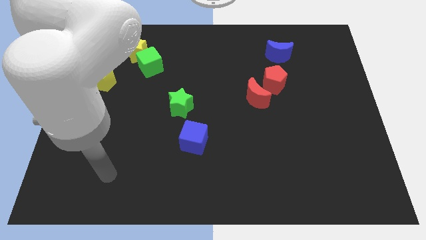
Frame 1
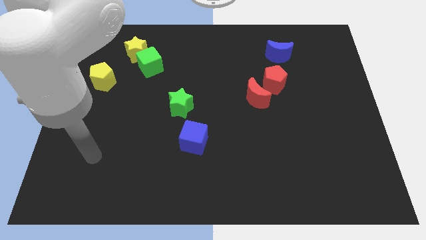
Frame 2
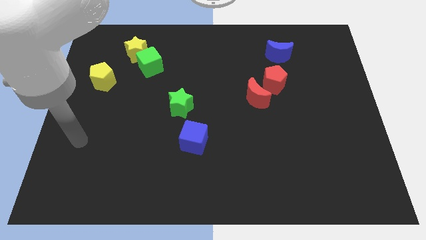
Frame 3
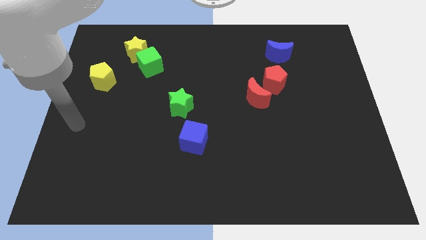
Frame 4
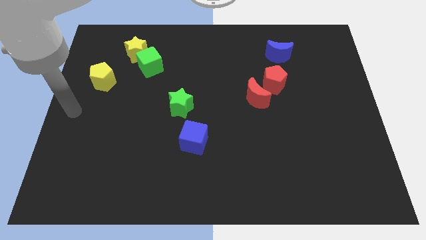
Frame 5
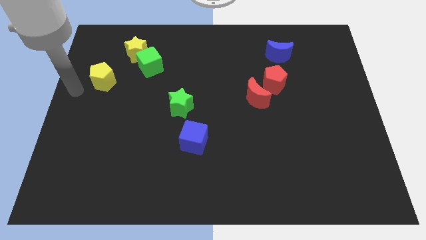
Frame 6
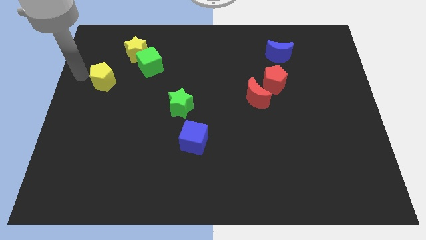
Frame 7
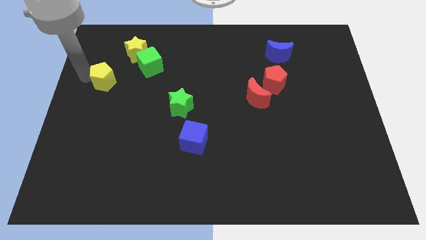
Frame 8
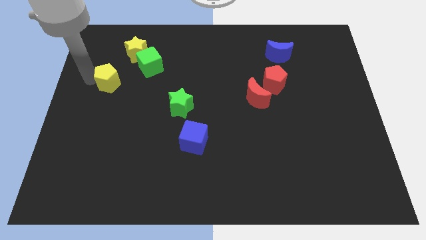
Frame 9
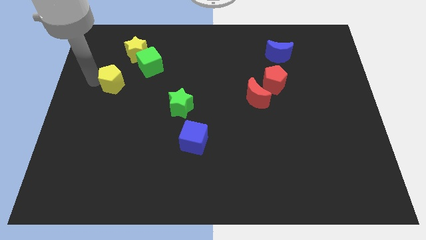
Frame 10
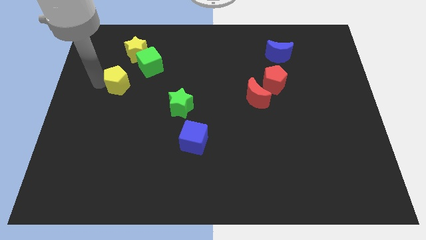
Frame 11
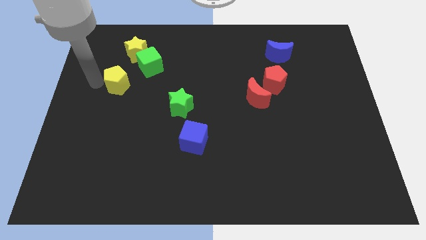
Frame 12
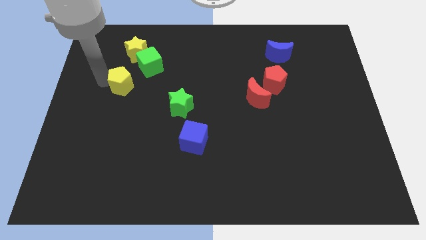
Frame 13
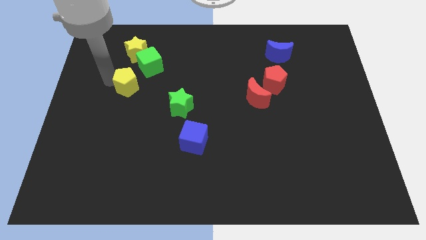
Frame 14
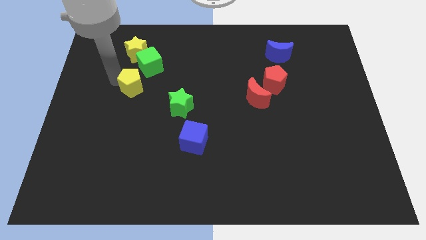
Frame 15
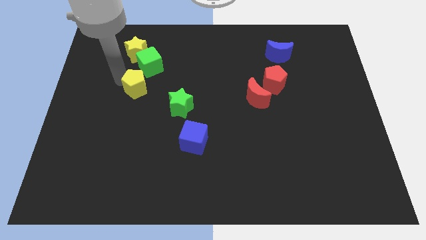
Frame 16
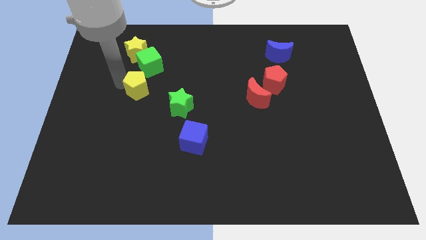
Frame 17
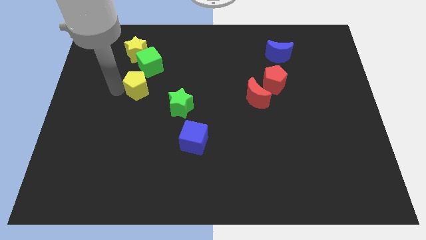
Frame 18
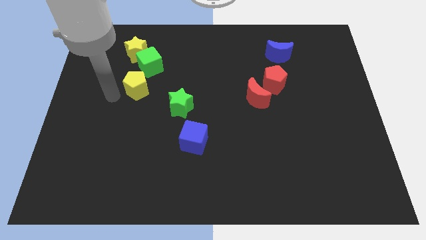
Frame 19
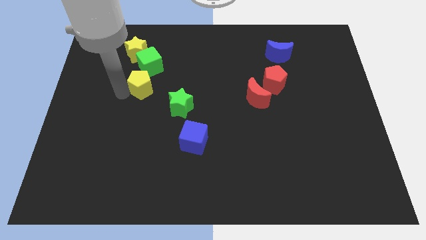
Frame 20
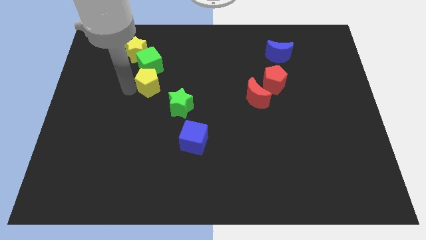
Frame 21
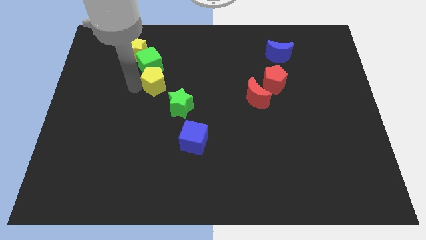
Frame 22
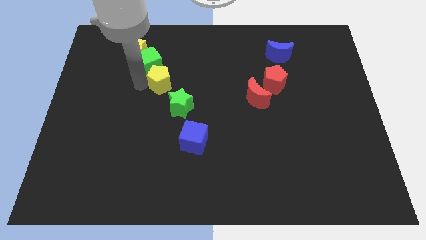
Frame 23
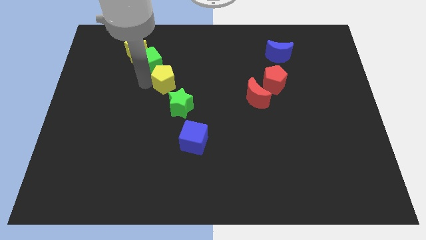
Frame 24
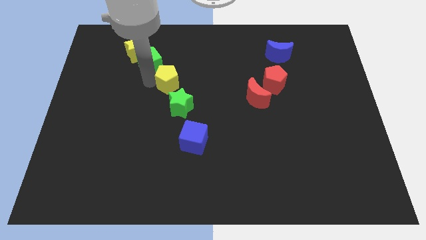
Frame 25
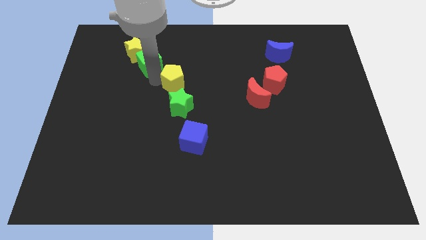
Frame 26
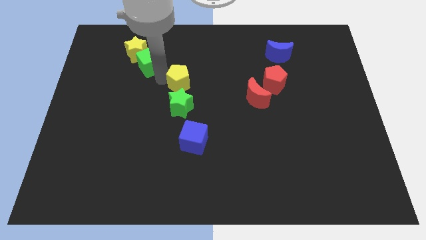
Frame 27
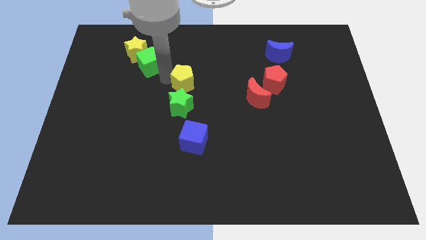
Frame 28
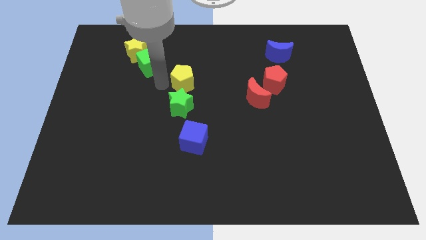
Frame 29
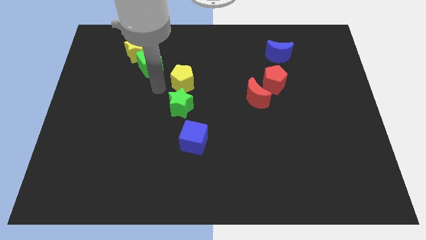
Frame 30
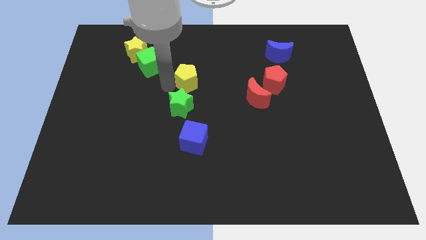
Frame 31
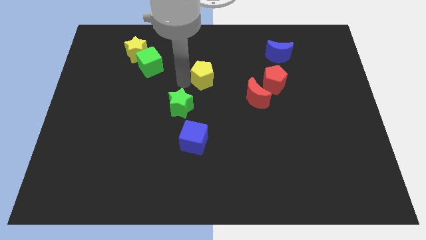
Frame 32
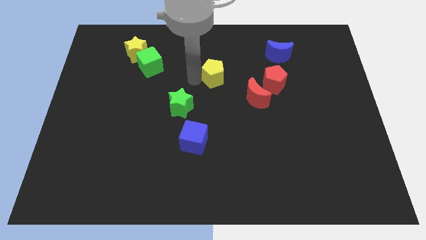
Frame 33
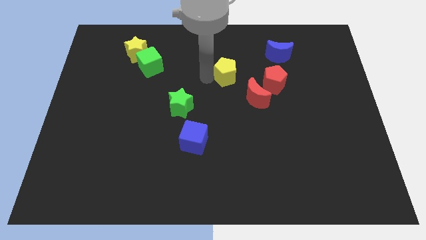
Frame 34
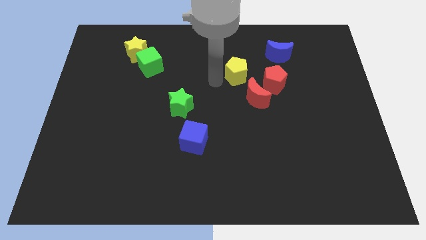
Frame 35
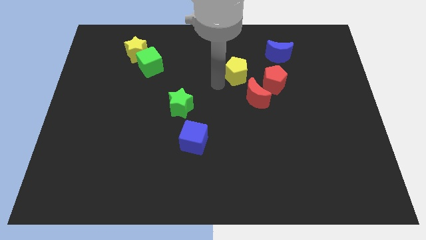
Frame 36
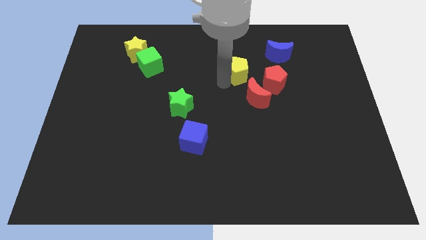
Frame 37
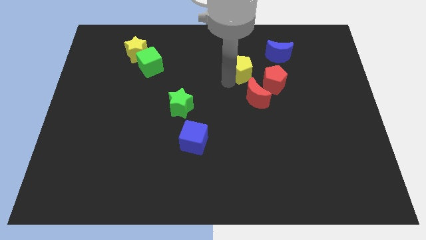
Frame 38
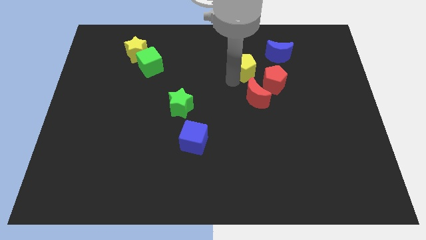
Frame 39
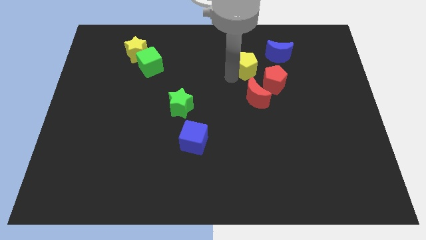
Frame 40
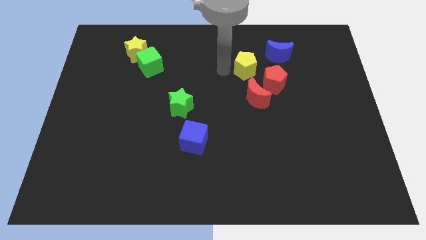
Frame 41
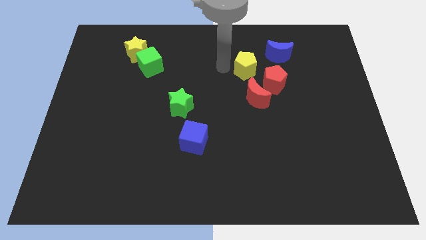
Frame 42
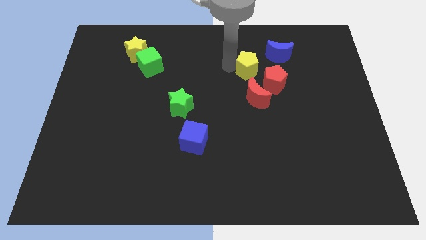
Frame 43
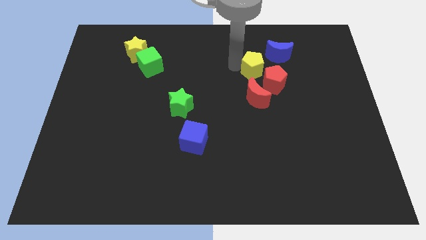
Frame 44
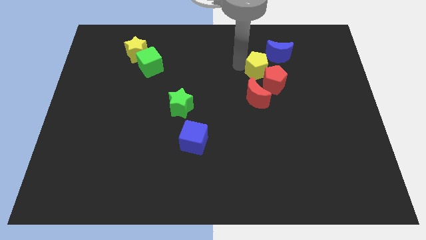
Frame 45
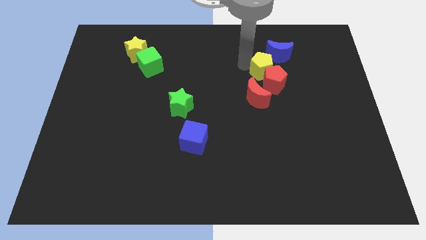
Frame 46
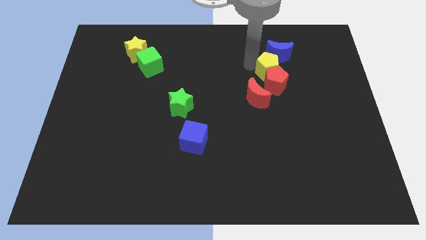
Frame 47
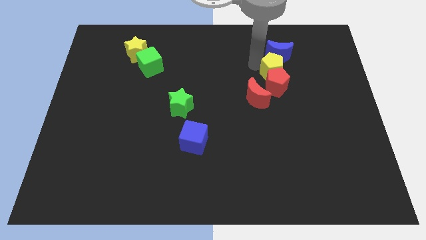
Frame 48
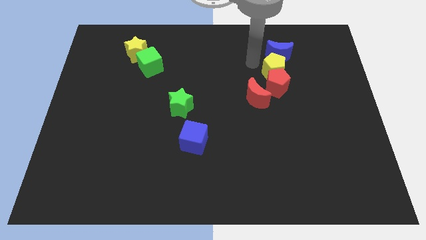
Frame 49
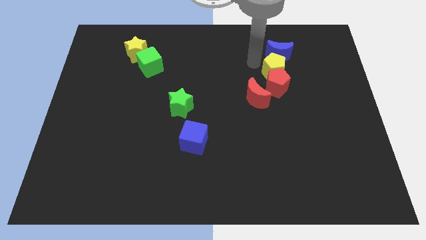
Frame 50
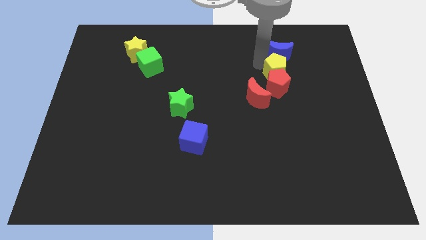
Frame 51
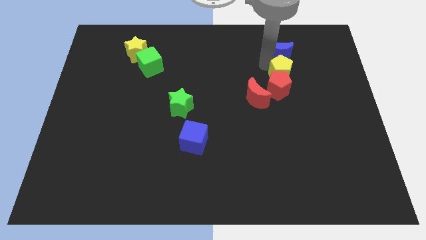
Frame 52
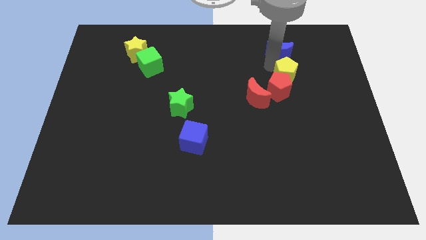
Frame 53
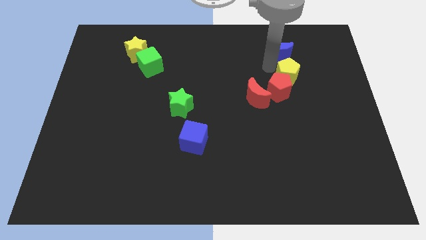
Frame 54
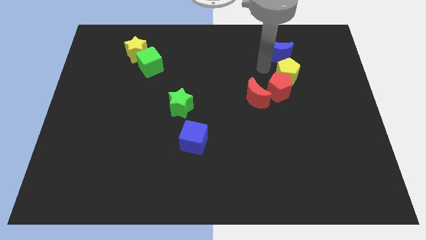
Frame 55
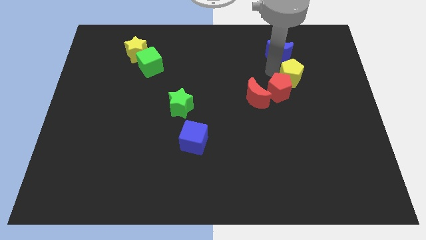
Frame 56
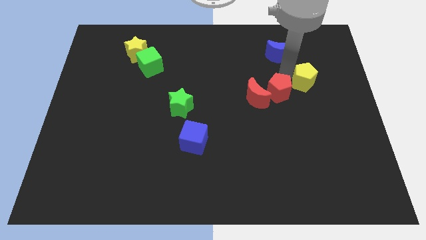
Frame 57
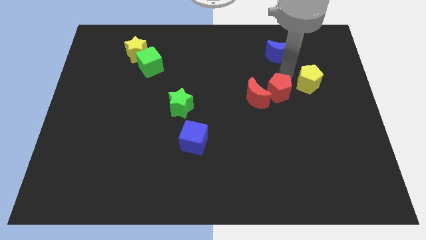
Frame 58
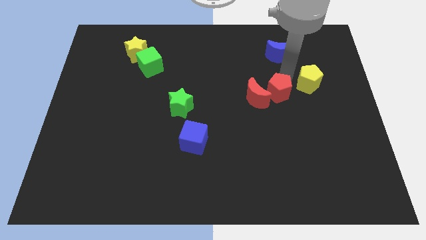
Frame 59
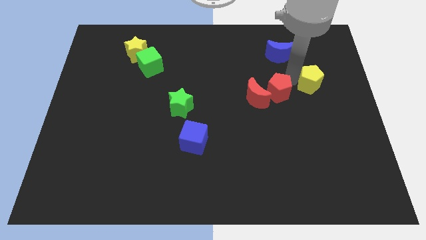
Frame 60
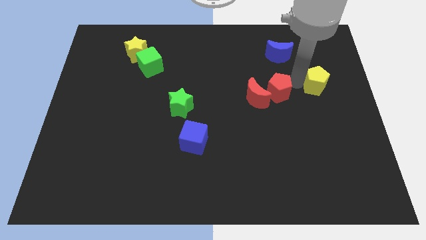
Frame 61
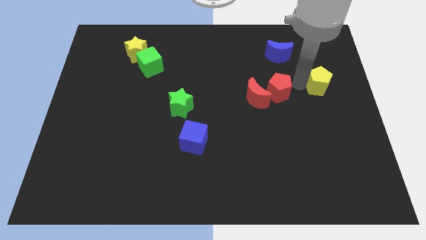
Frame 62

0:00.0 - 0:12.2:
move the yellow pentagon to the right side
